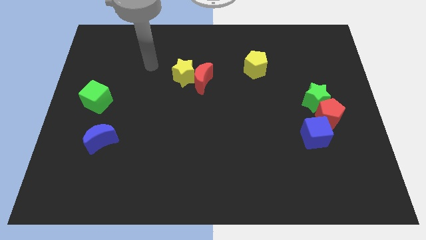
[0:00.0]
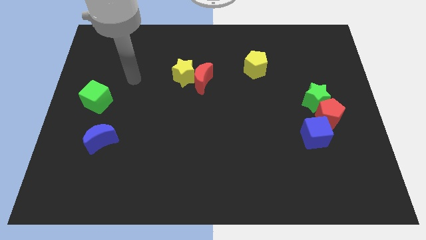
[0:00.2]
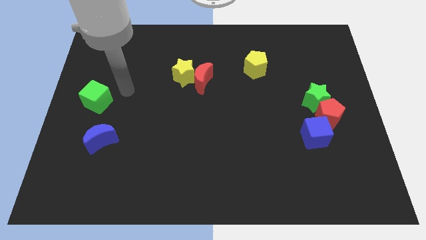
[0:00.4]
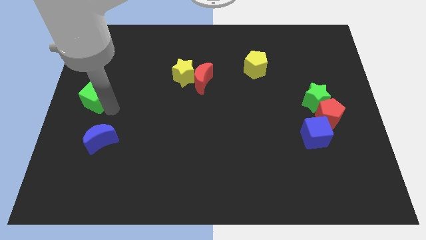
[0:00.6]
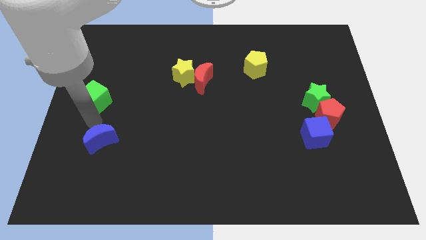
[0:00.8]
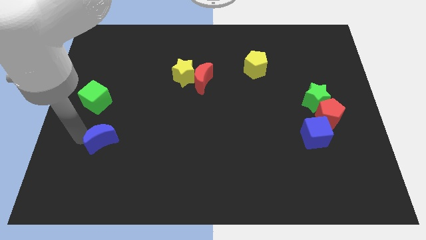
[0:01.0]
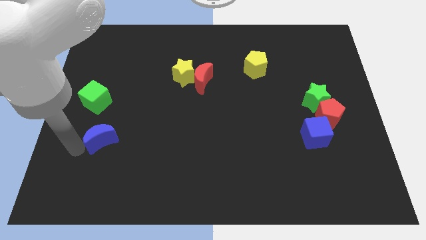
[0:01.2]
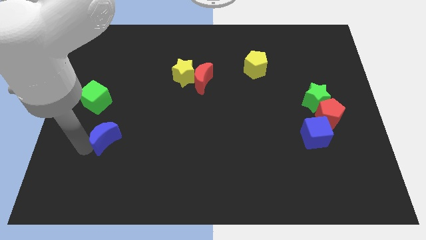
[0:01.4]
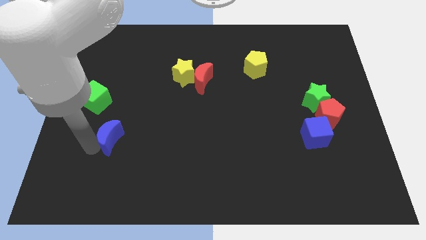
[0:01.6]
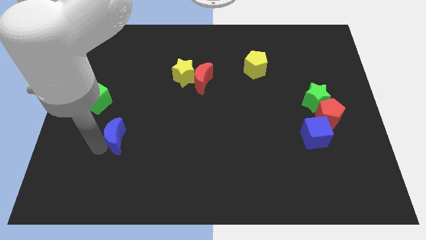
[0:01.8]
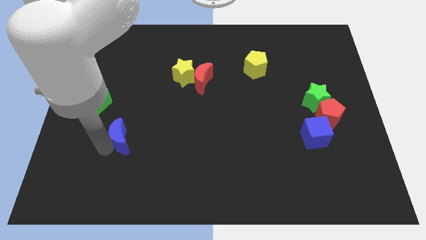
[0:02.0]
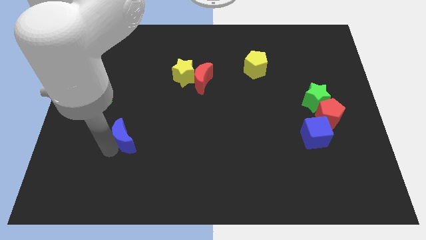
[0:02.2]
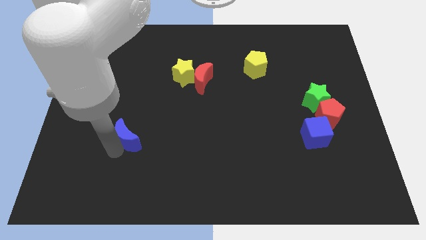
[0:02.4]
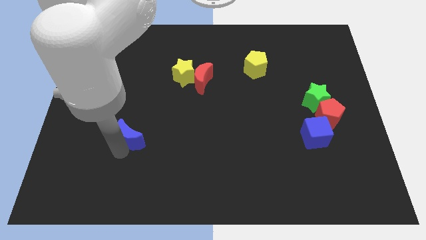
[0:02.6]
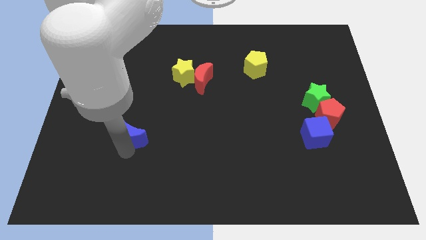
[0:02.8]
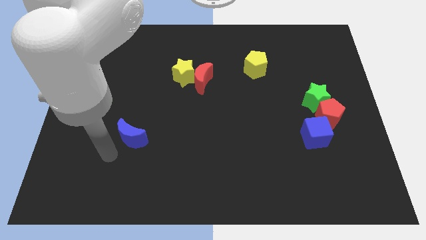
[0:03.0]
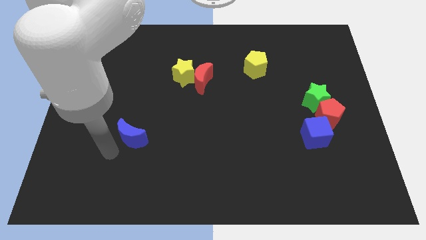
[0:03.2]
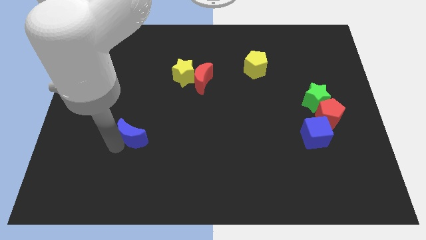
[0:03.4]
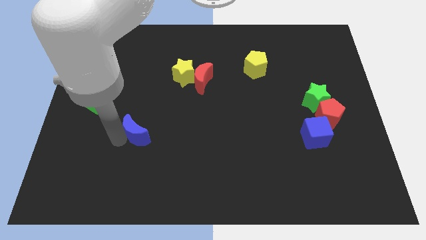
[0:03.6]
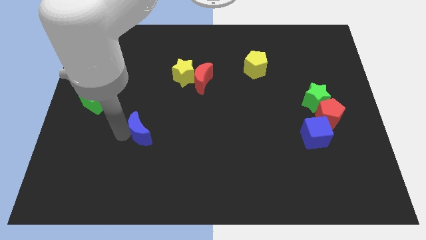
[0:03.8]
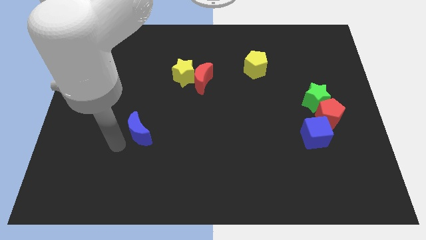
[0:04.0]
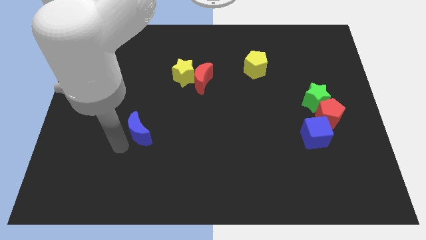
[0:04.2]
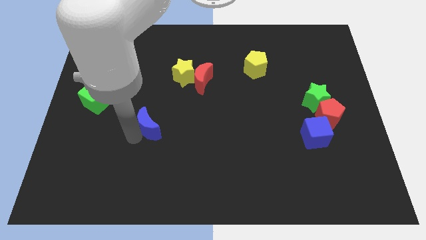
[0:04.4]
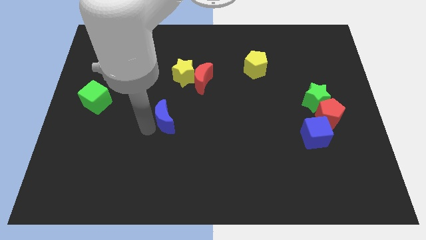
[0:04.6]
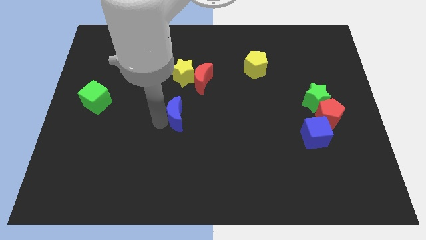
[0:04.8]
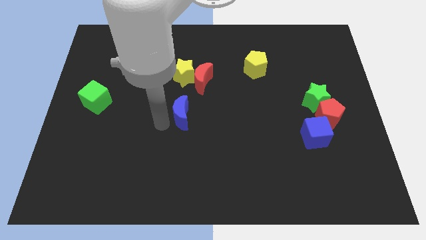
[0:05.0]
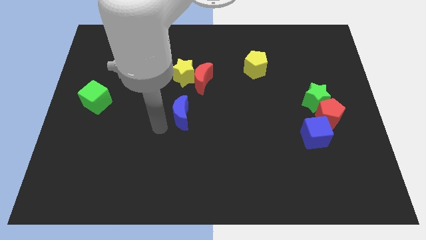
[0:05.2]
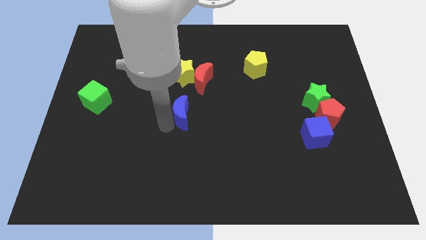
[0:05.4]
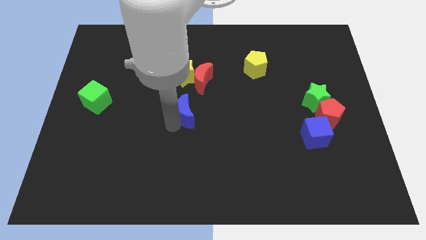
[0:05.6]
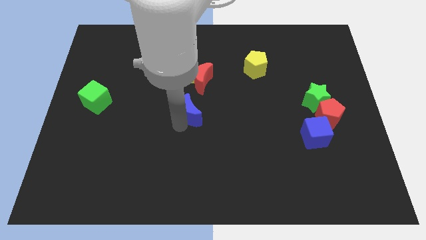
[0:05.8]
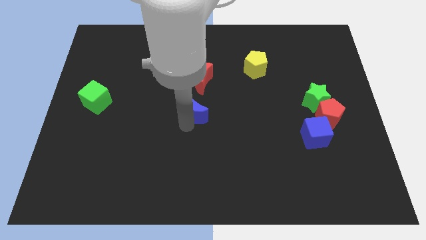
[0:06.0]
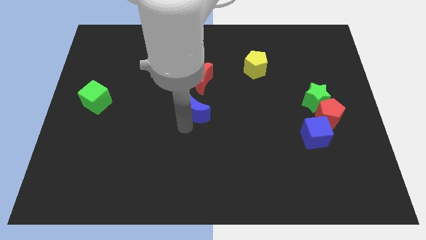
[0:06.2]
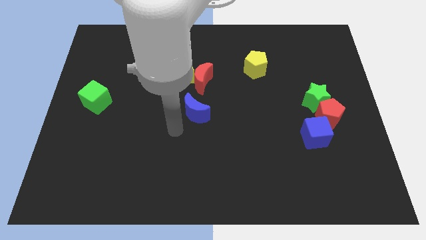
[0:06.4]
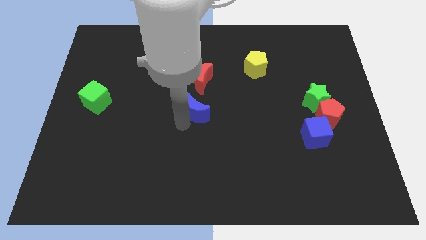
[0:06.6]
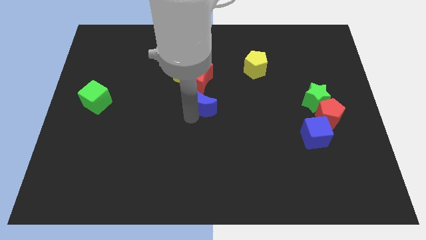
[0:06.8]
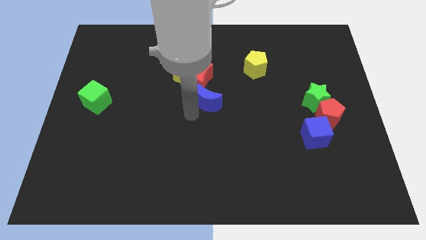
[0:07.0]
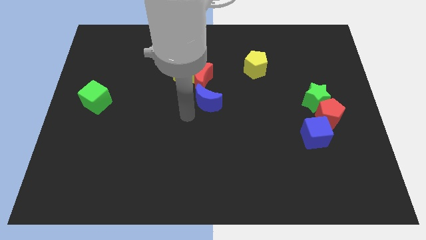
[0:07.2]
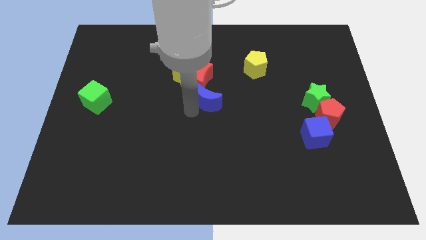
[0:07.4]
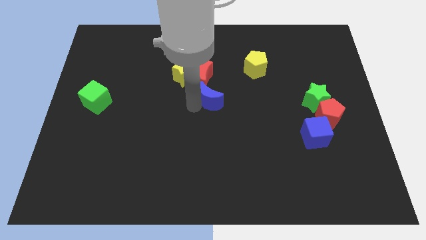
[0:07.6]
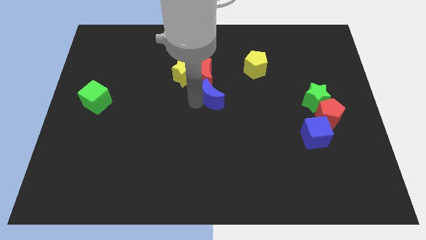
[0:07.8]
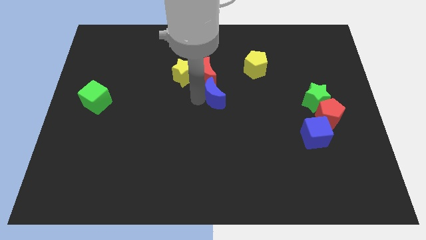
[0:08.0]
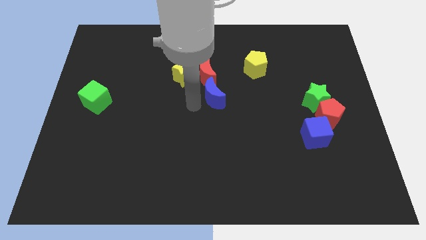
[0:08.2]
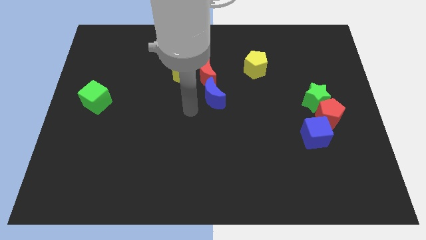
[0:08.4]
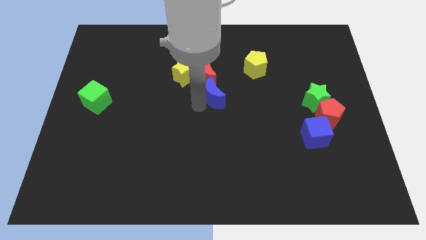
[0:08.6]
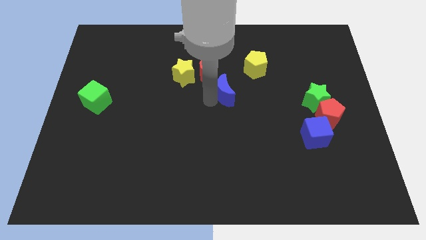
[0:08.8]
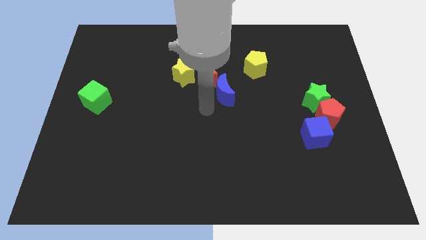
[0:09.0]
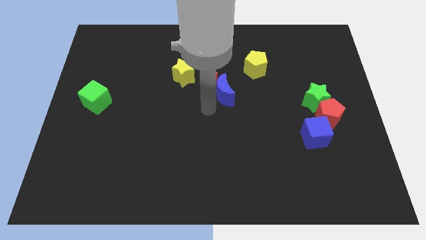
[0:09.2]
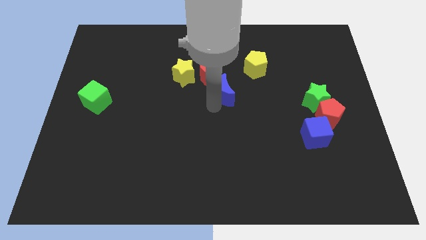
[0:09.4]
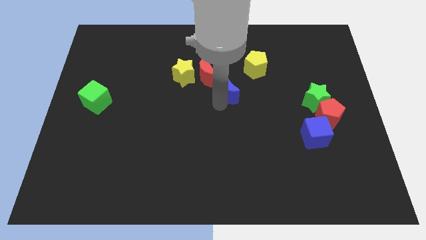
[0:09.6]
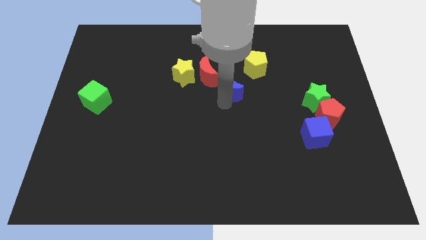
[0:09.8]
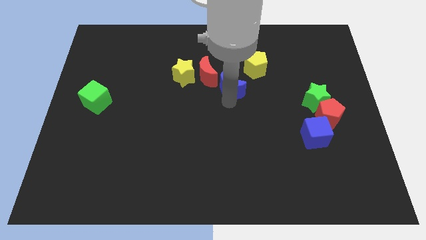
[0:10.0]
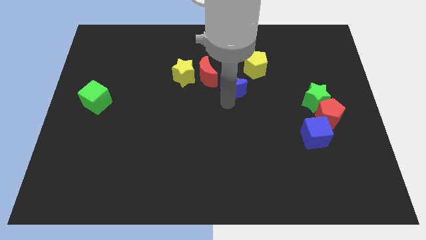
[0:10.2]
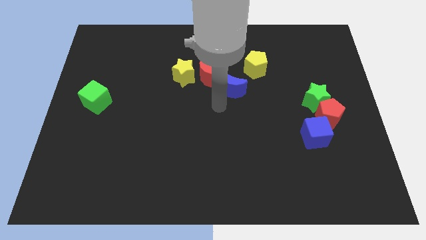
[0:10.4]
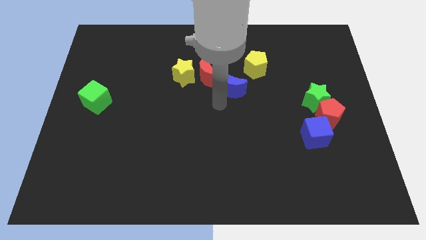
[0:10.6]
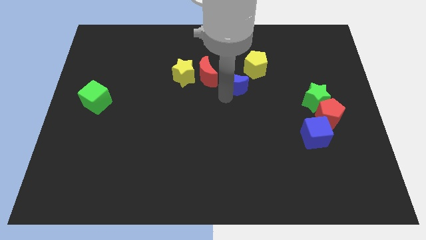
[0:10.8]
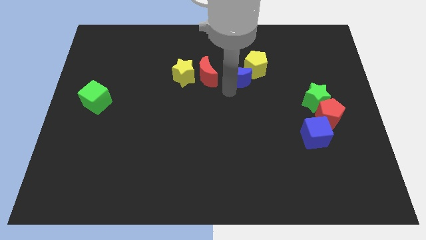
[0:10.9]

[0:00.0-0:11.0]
push the blue moon close to the yellow pentagon

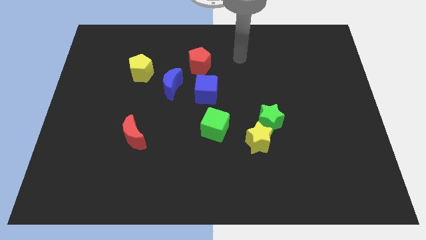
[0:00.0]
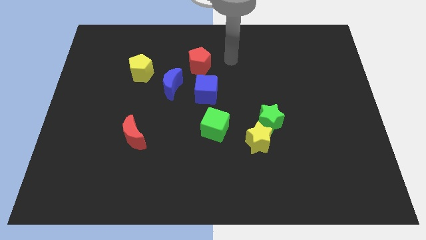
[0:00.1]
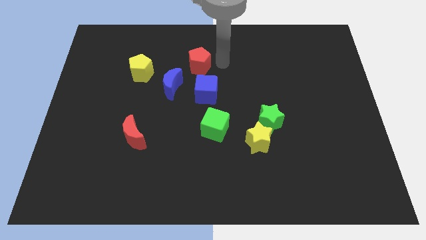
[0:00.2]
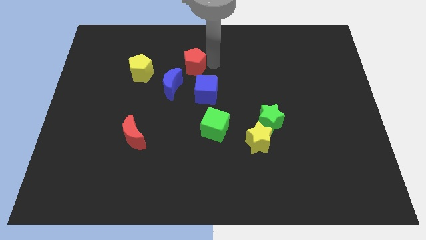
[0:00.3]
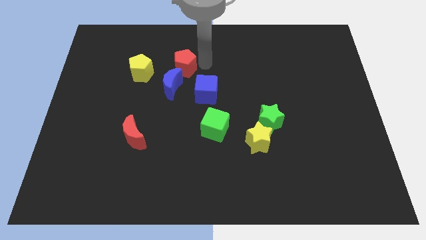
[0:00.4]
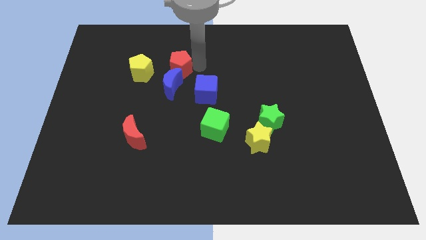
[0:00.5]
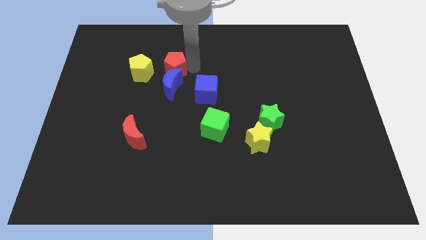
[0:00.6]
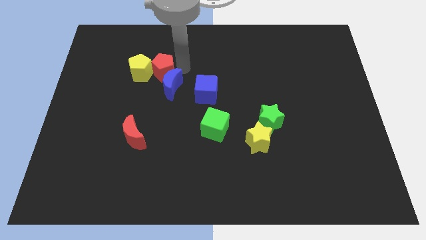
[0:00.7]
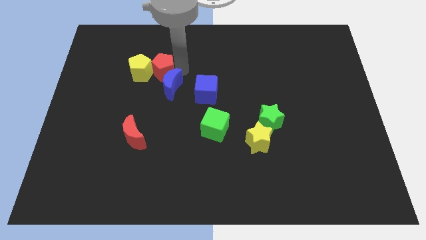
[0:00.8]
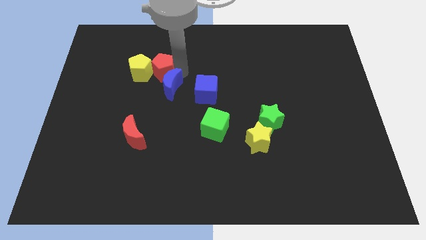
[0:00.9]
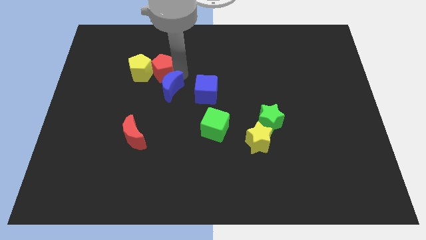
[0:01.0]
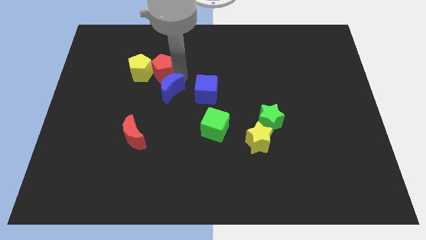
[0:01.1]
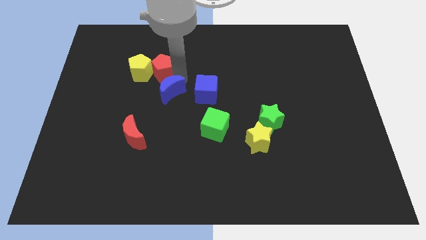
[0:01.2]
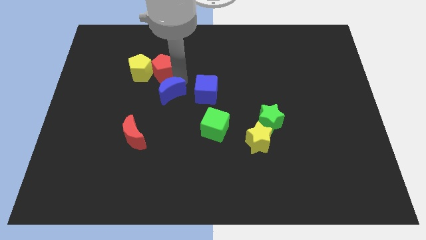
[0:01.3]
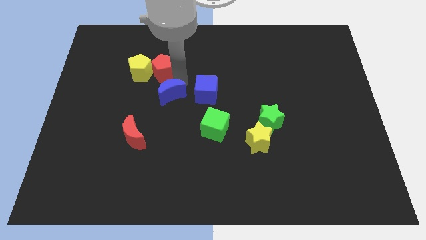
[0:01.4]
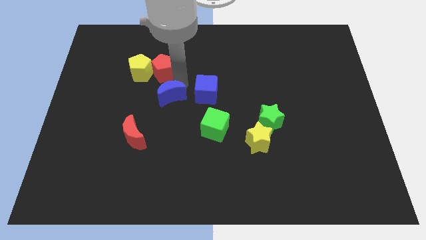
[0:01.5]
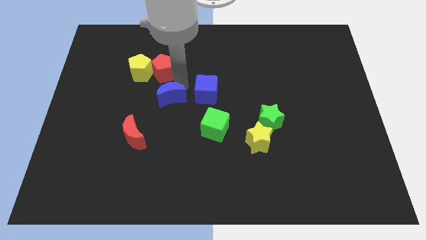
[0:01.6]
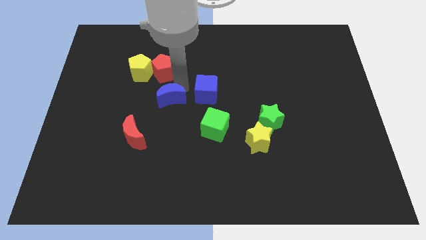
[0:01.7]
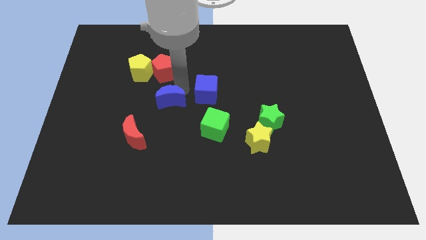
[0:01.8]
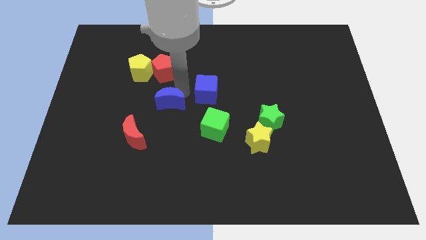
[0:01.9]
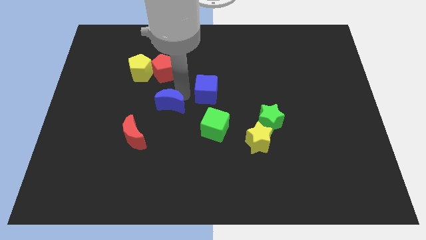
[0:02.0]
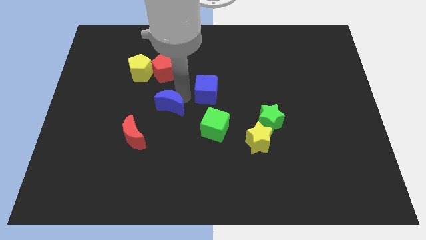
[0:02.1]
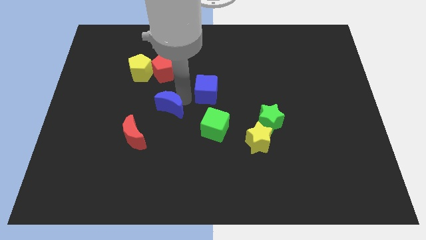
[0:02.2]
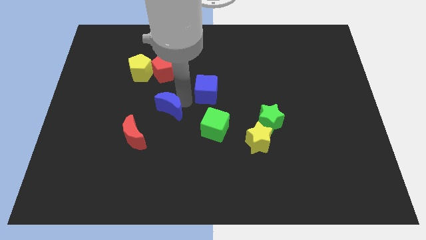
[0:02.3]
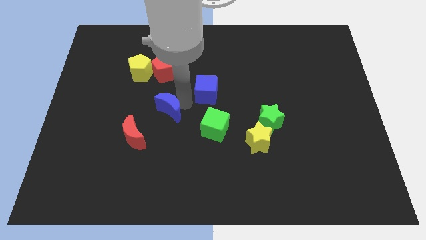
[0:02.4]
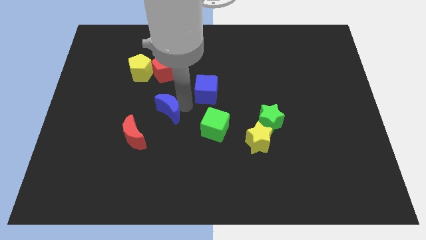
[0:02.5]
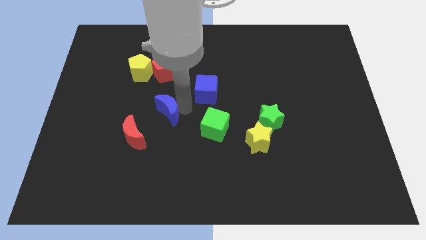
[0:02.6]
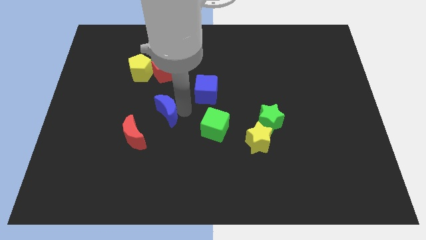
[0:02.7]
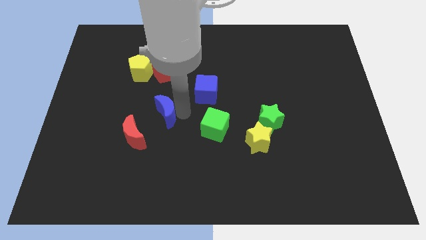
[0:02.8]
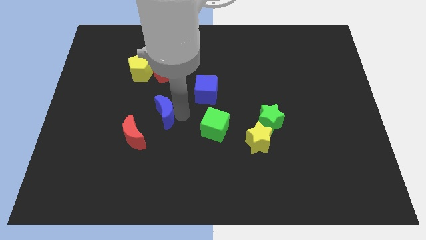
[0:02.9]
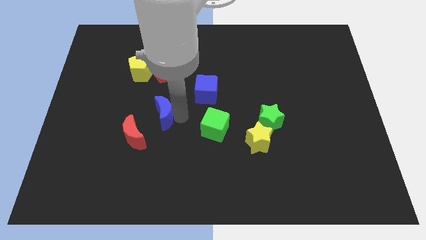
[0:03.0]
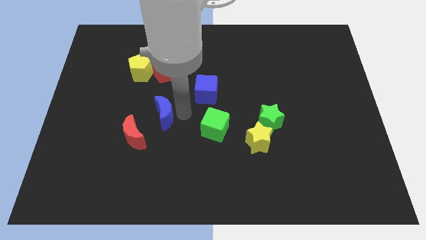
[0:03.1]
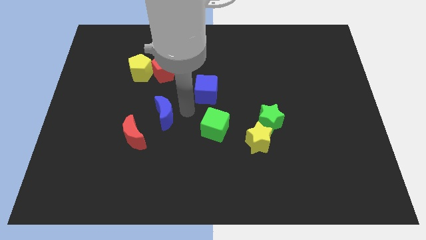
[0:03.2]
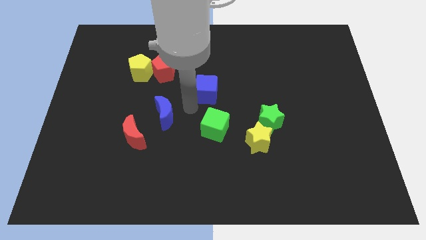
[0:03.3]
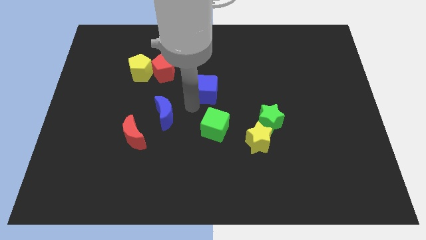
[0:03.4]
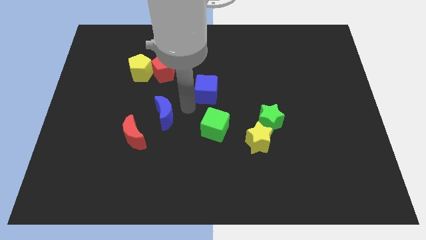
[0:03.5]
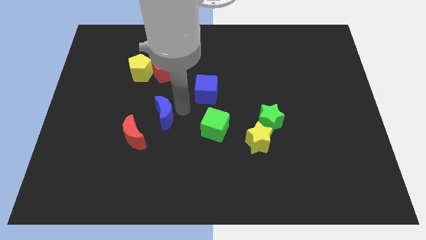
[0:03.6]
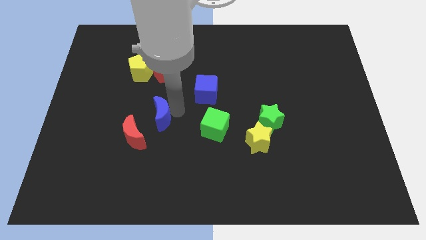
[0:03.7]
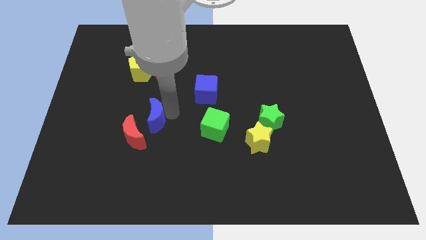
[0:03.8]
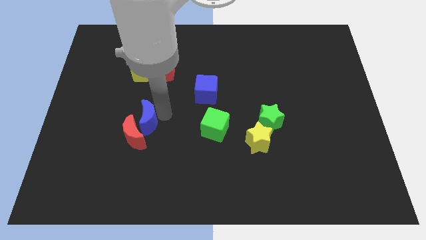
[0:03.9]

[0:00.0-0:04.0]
move the blue moon close to the red moon
